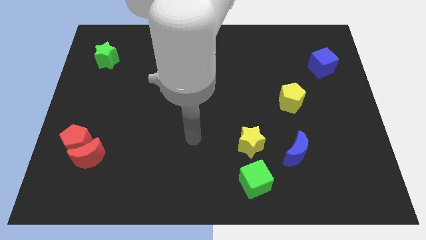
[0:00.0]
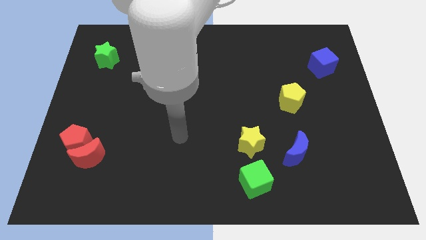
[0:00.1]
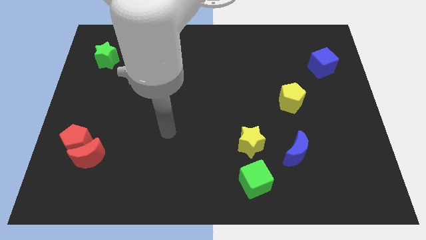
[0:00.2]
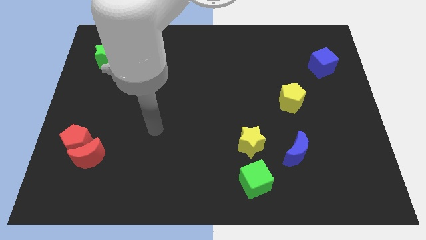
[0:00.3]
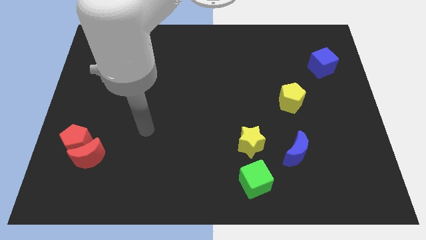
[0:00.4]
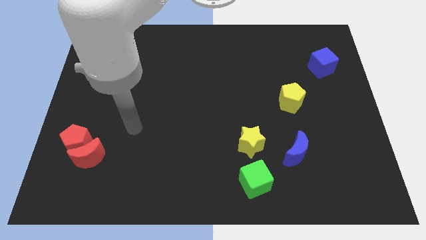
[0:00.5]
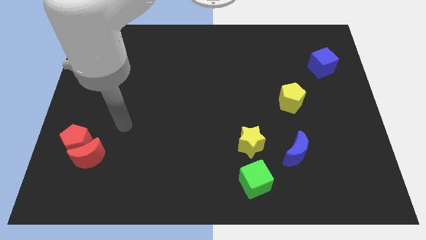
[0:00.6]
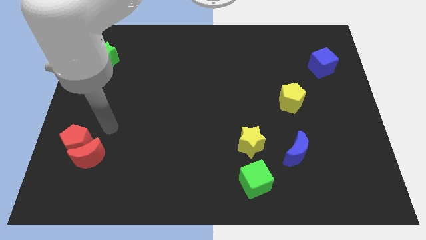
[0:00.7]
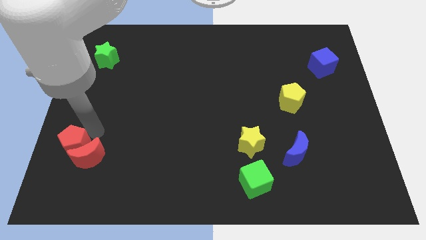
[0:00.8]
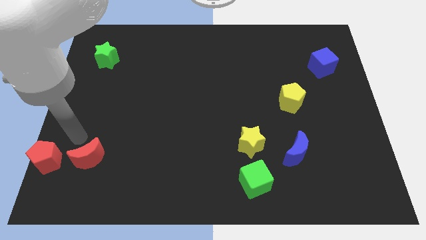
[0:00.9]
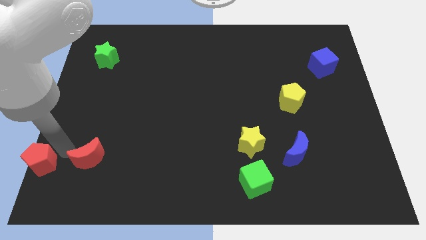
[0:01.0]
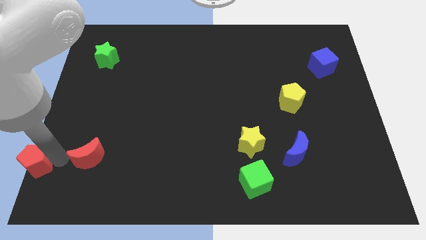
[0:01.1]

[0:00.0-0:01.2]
move the red moon away from the red pentagon

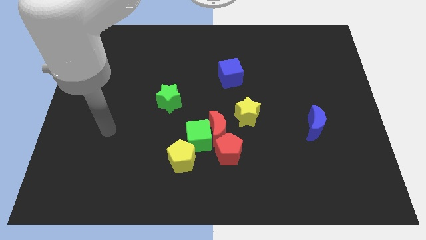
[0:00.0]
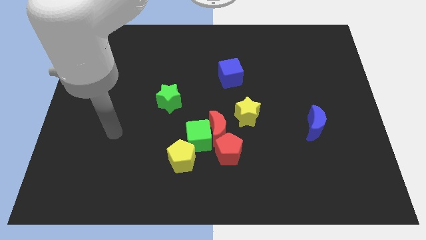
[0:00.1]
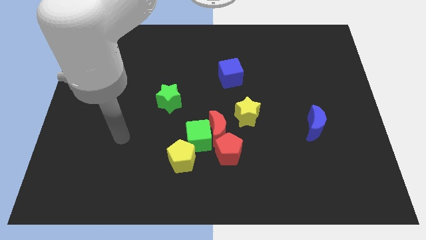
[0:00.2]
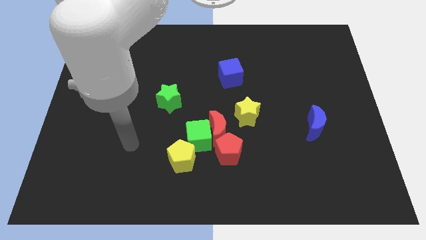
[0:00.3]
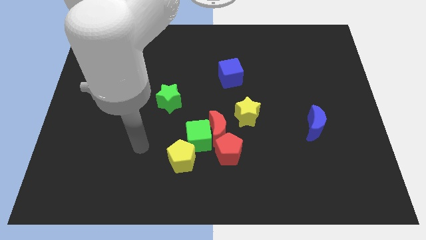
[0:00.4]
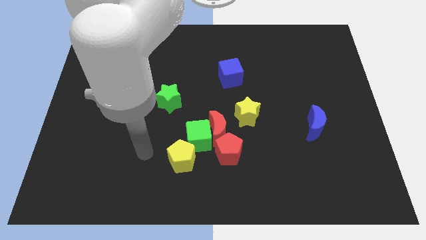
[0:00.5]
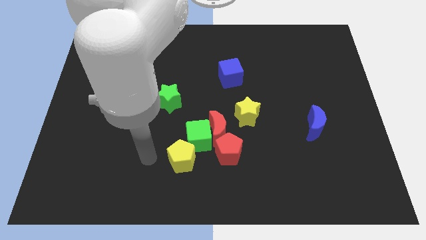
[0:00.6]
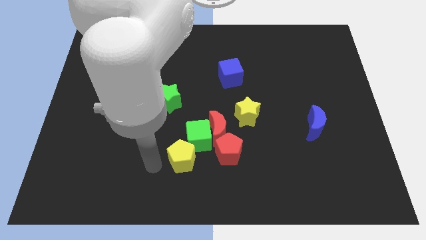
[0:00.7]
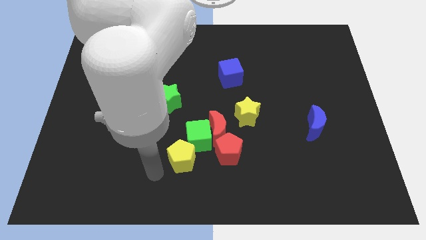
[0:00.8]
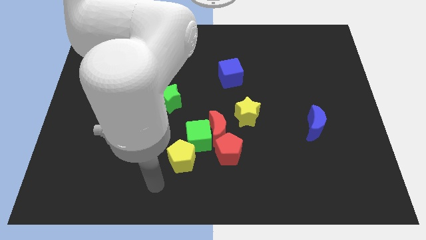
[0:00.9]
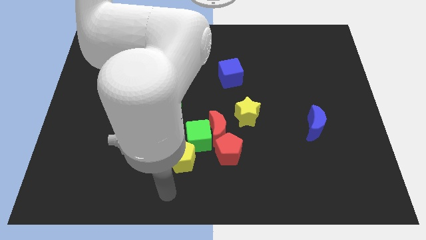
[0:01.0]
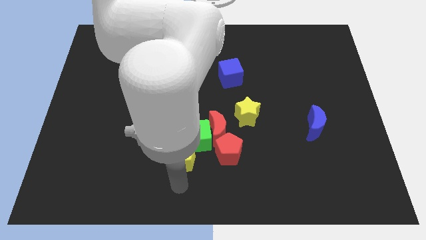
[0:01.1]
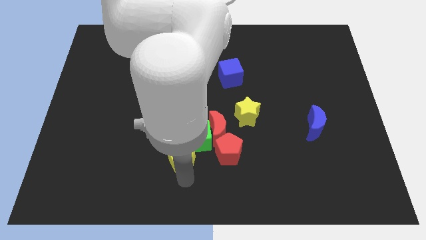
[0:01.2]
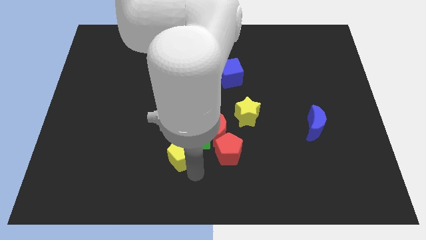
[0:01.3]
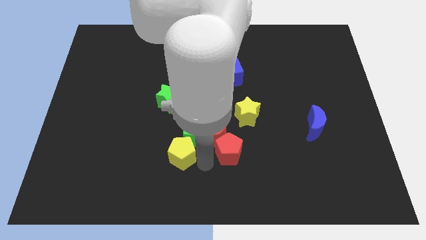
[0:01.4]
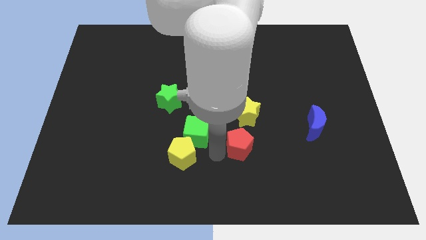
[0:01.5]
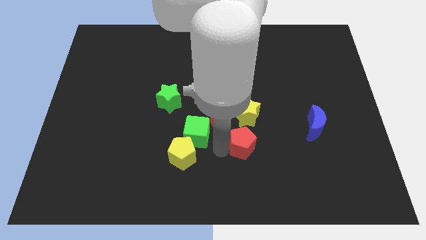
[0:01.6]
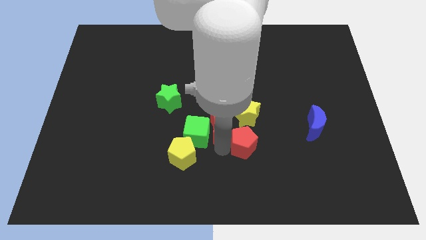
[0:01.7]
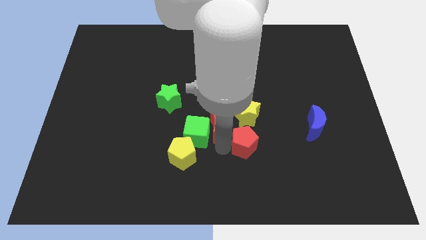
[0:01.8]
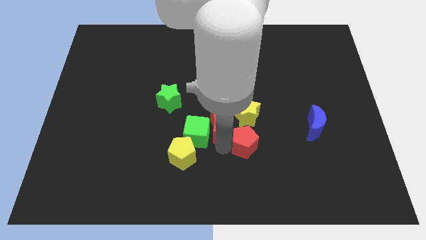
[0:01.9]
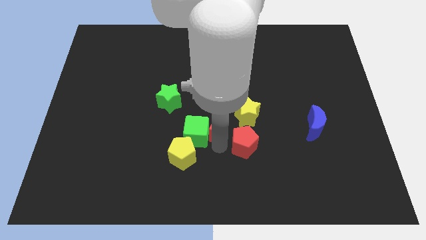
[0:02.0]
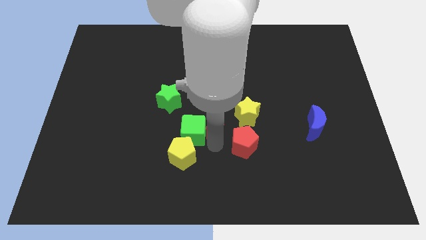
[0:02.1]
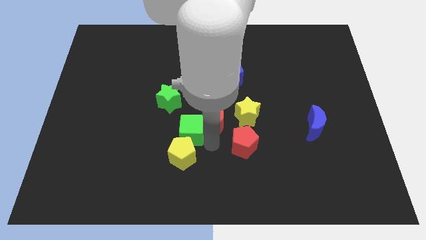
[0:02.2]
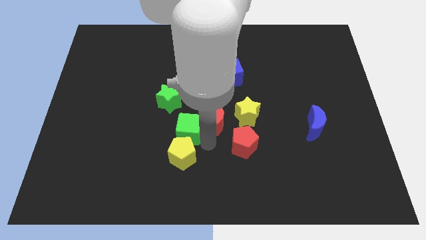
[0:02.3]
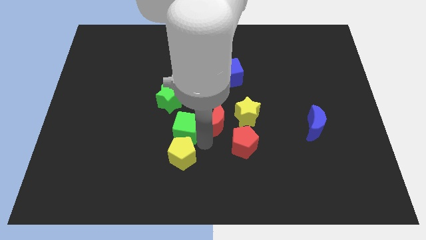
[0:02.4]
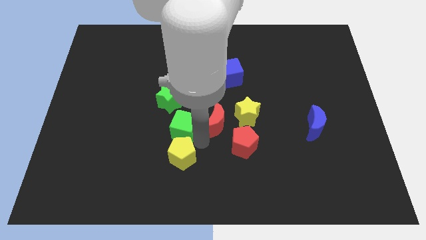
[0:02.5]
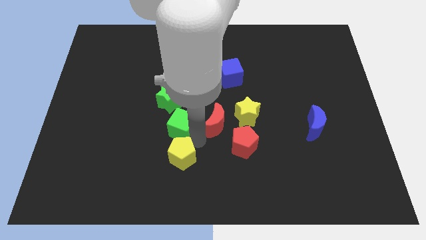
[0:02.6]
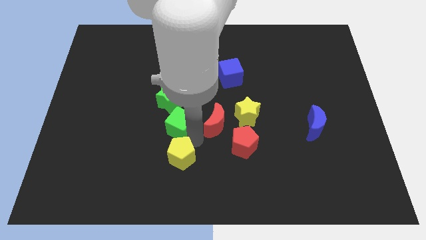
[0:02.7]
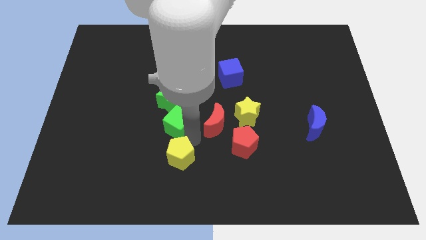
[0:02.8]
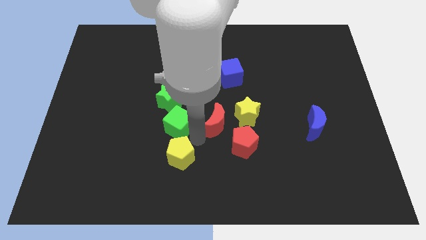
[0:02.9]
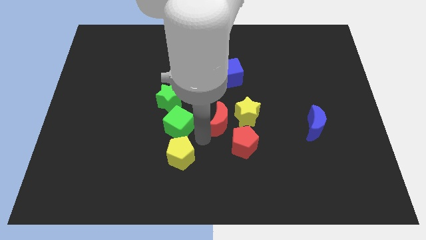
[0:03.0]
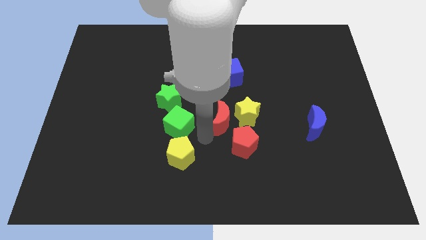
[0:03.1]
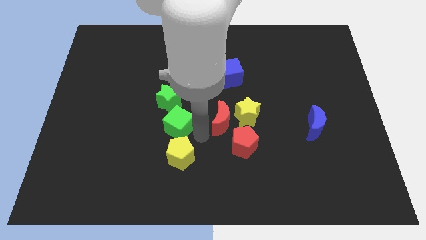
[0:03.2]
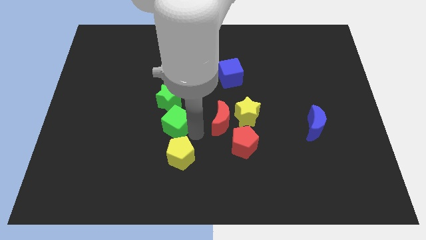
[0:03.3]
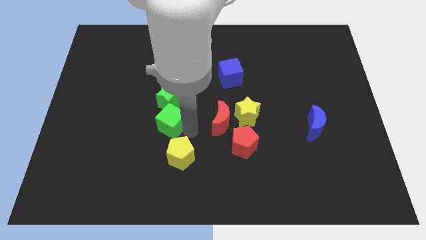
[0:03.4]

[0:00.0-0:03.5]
separate the green cube from the red moon, yellow pentagon, and red pentagon

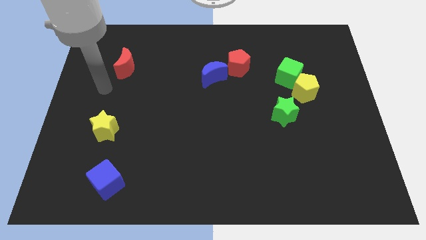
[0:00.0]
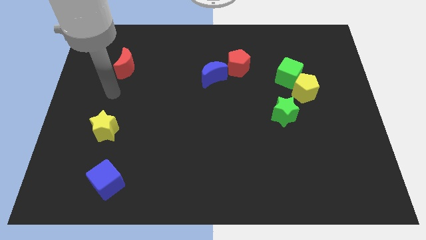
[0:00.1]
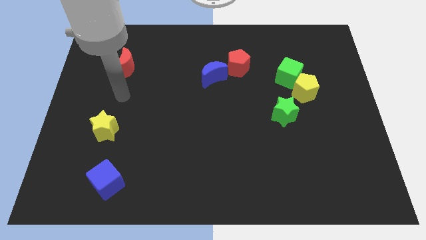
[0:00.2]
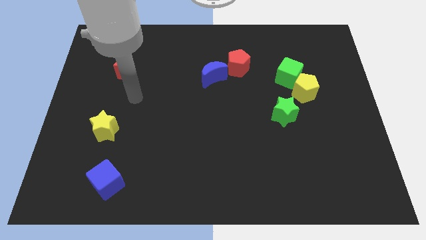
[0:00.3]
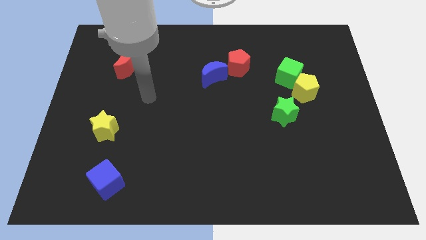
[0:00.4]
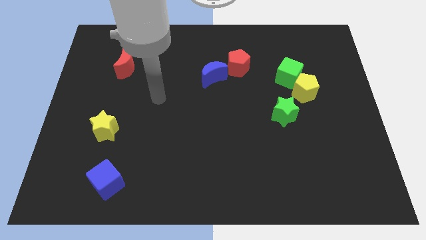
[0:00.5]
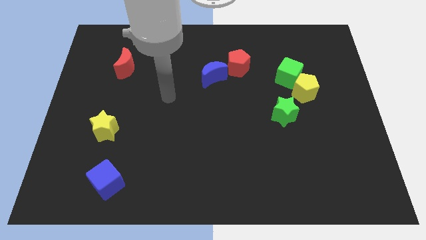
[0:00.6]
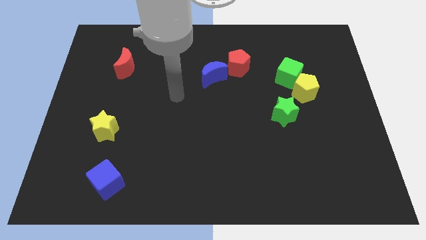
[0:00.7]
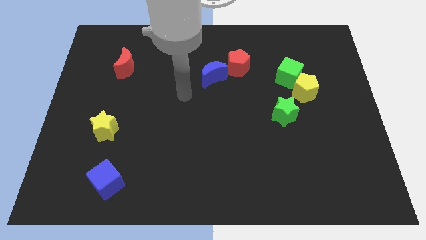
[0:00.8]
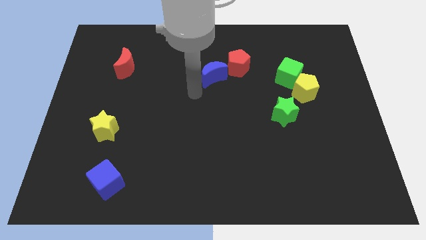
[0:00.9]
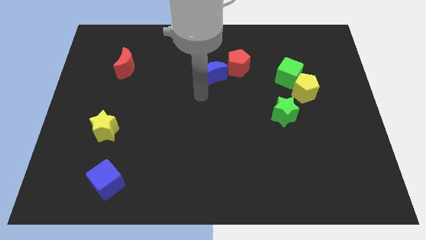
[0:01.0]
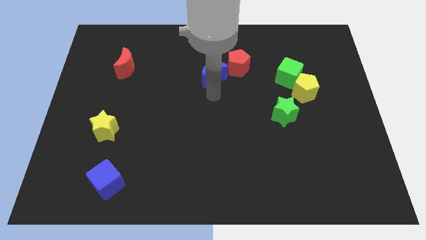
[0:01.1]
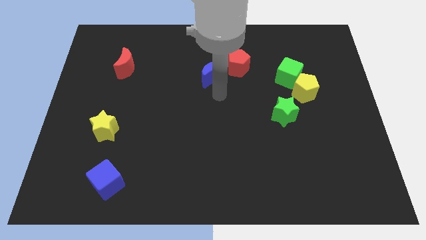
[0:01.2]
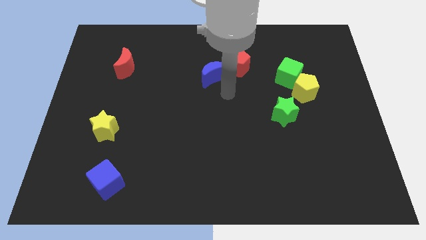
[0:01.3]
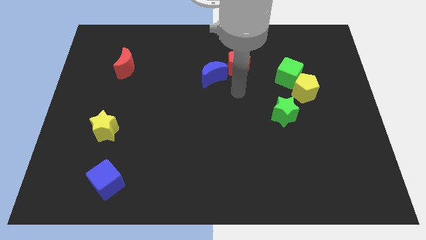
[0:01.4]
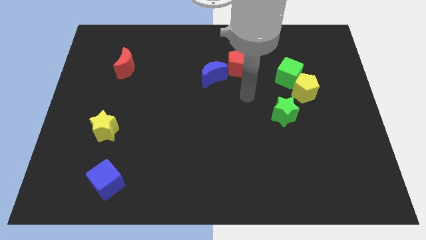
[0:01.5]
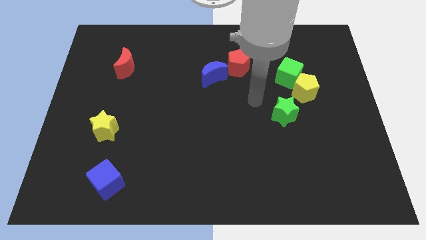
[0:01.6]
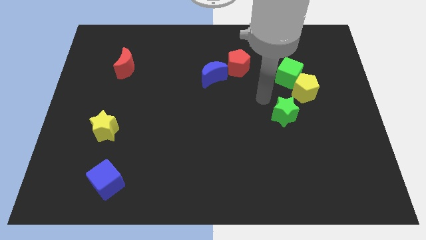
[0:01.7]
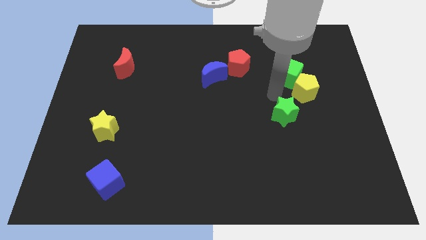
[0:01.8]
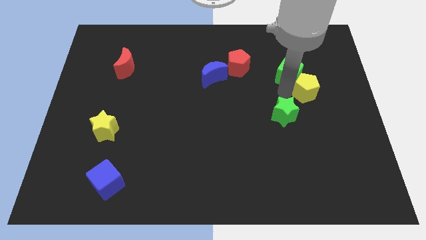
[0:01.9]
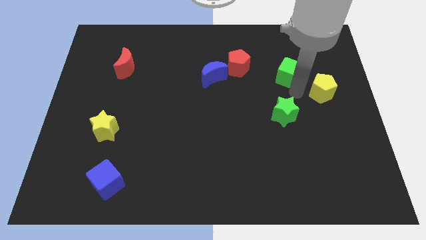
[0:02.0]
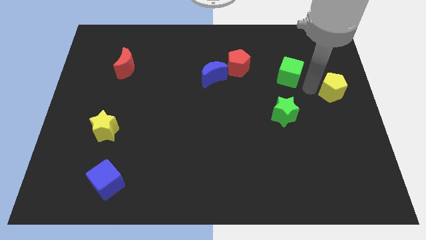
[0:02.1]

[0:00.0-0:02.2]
separate the green cube from the yellow pentagon

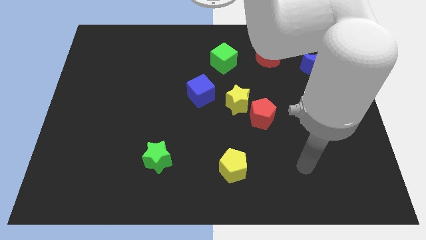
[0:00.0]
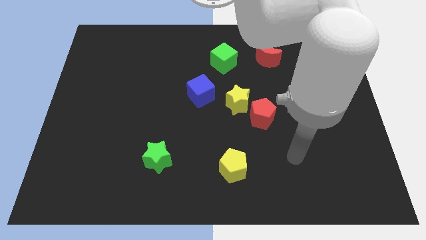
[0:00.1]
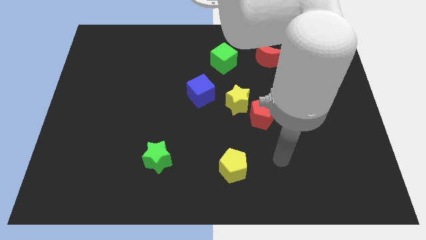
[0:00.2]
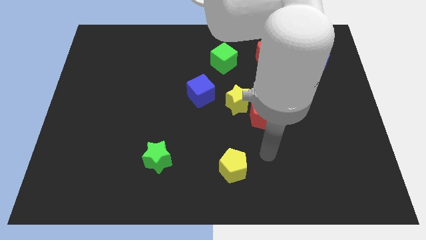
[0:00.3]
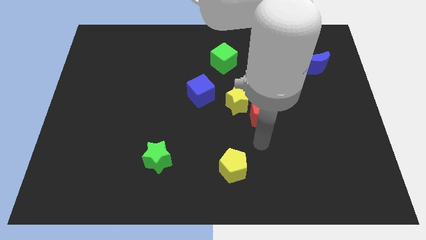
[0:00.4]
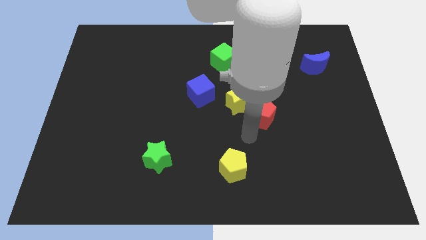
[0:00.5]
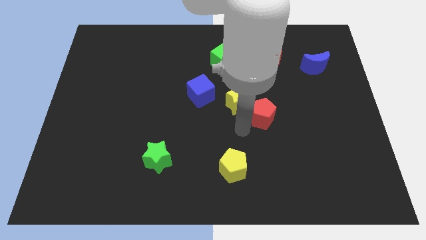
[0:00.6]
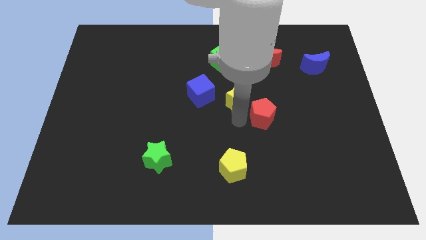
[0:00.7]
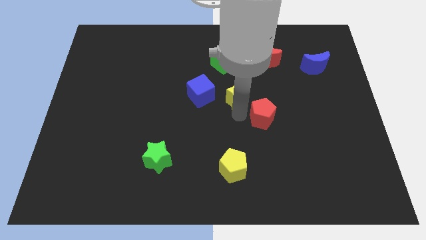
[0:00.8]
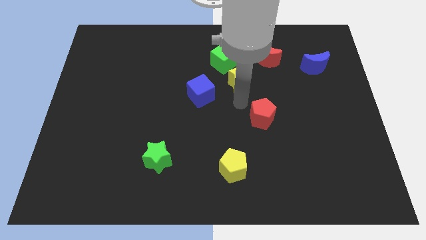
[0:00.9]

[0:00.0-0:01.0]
move the red pentagon away from the yellow star

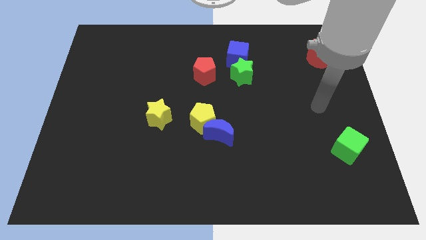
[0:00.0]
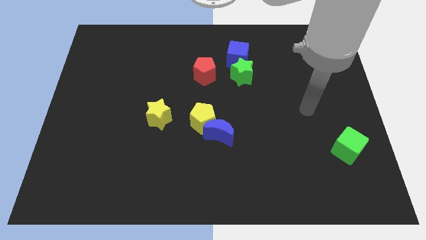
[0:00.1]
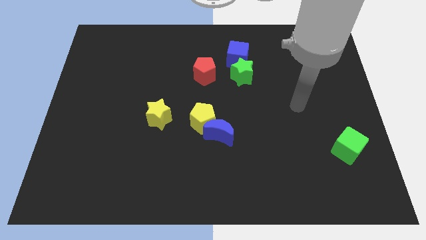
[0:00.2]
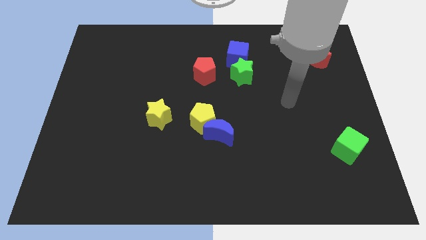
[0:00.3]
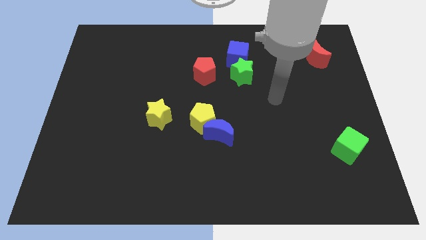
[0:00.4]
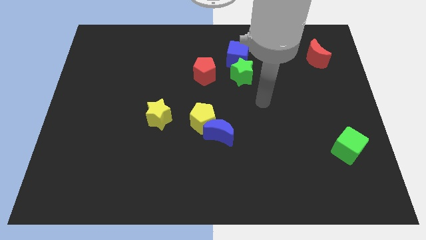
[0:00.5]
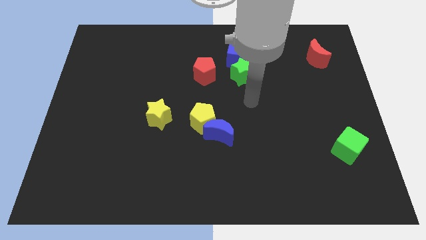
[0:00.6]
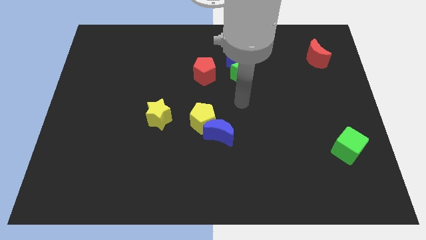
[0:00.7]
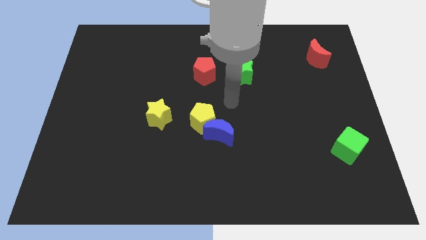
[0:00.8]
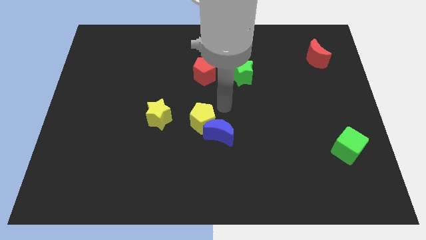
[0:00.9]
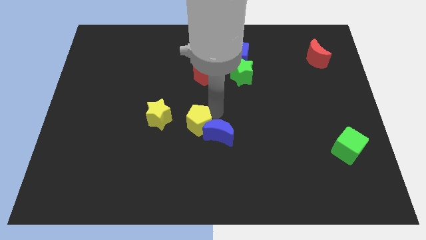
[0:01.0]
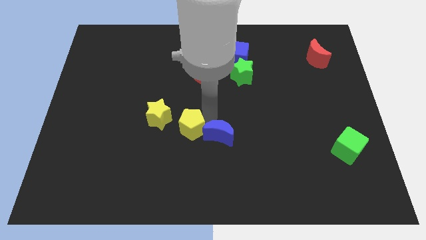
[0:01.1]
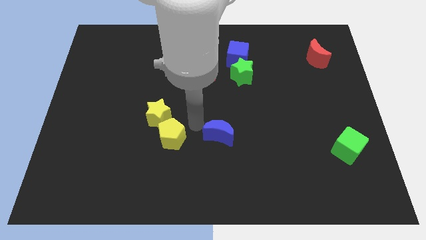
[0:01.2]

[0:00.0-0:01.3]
pull the blue moon apart from the yellow pentagon

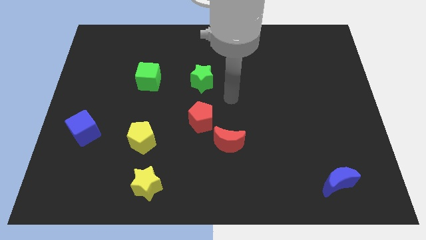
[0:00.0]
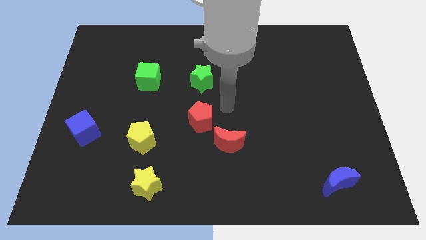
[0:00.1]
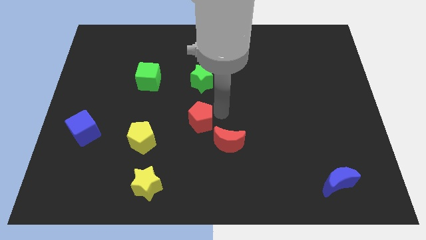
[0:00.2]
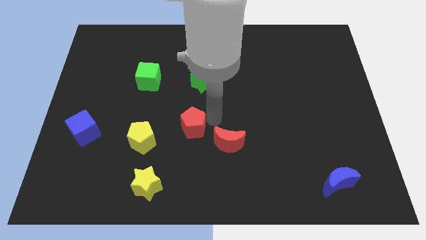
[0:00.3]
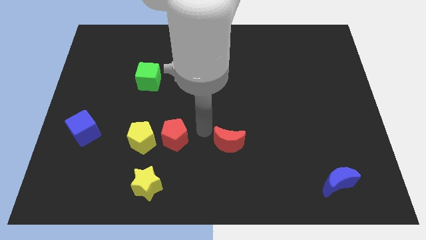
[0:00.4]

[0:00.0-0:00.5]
separate the red moon from the red pentagon
